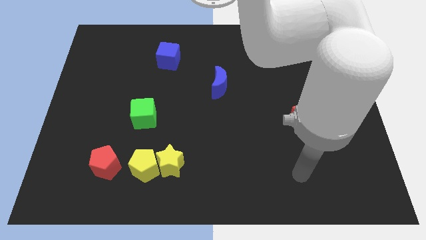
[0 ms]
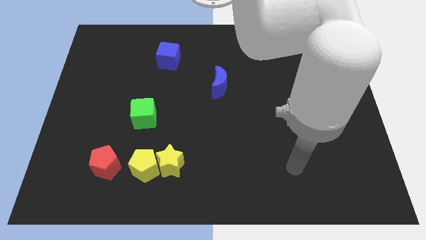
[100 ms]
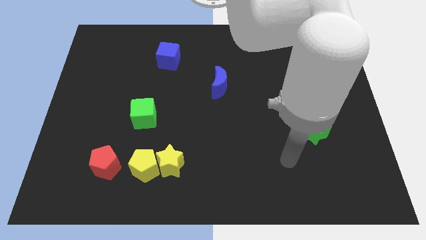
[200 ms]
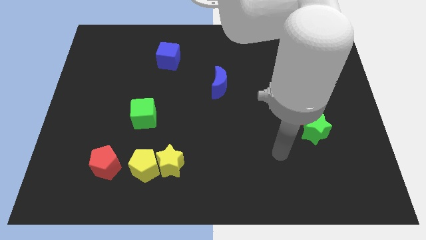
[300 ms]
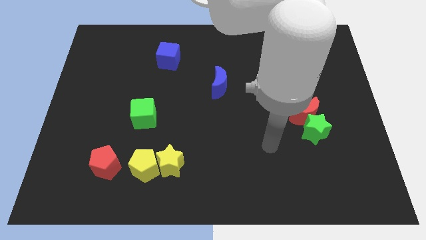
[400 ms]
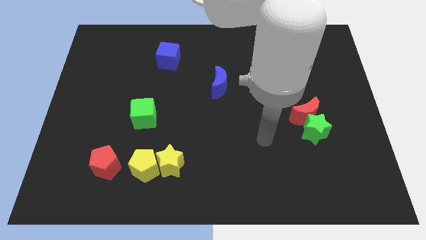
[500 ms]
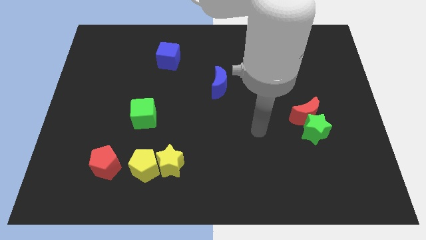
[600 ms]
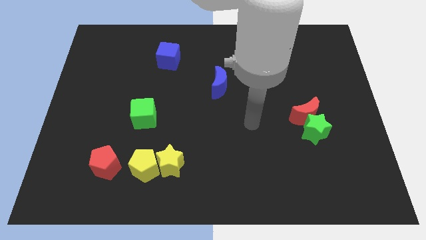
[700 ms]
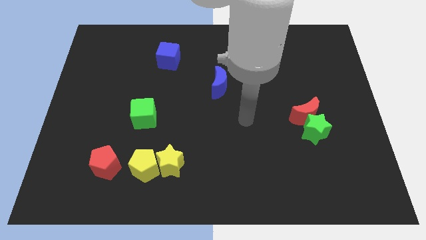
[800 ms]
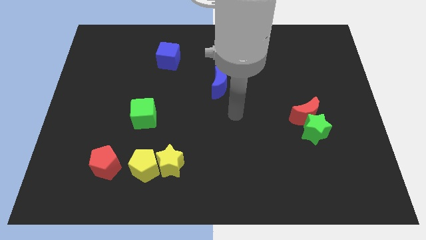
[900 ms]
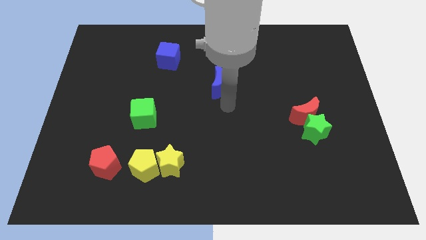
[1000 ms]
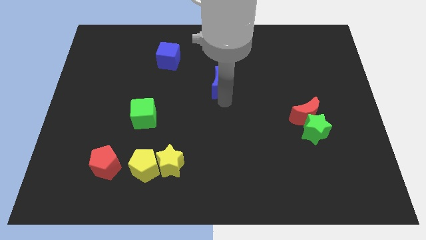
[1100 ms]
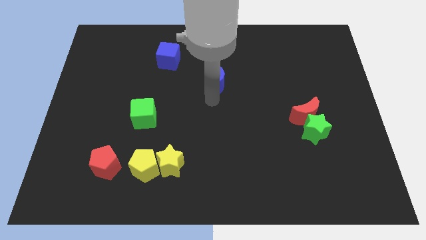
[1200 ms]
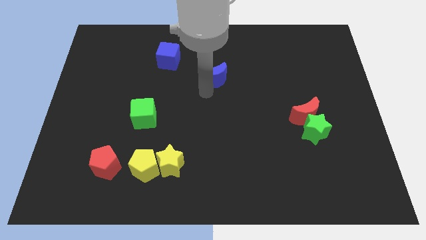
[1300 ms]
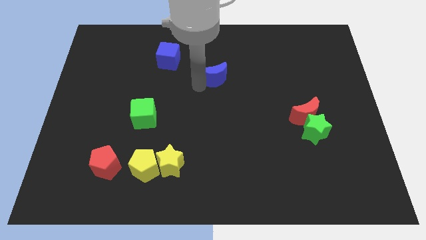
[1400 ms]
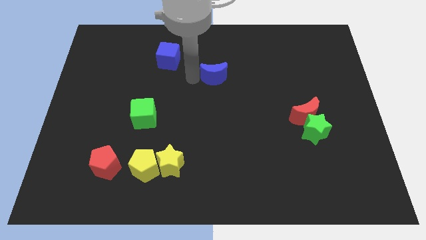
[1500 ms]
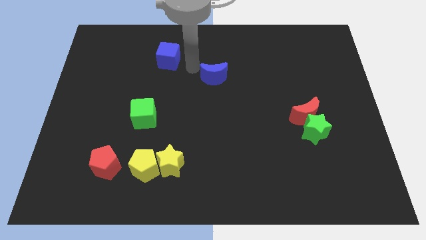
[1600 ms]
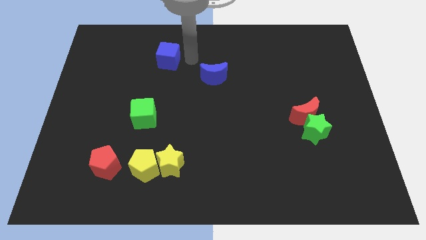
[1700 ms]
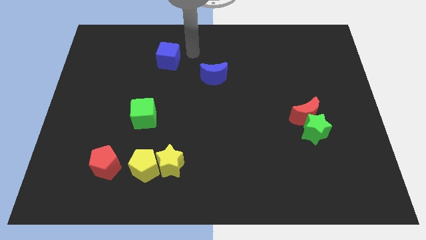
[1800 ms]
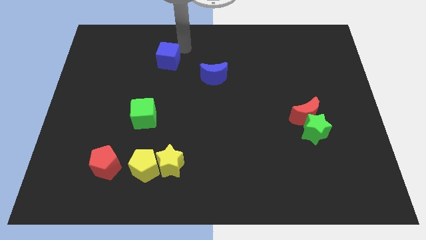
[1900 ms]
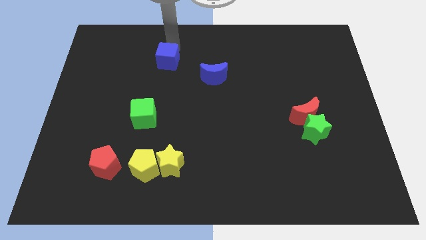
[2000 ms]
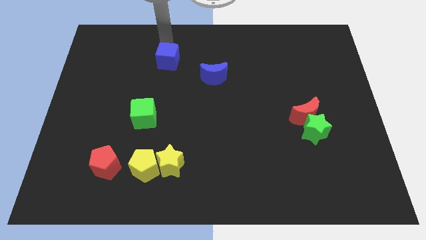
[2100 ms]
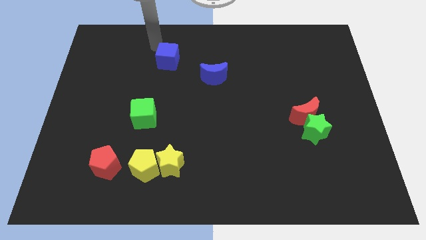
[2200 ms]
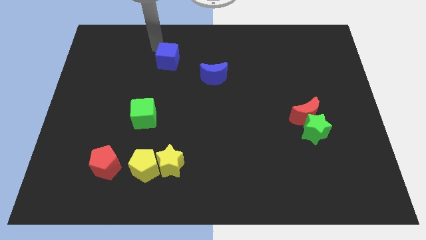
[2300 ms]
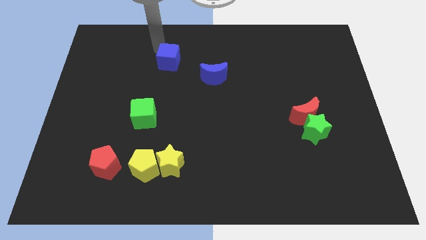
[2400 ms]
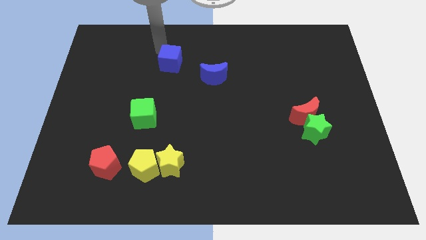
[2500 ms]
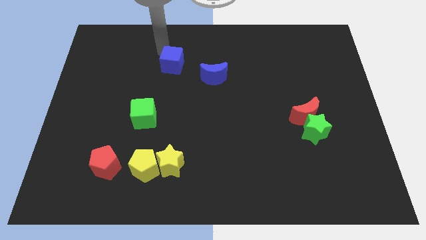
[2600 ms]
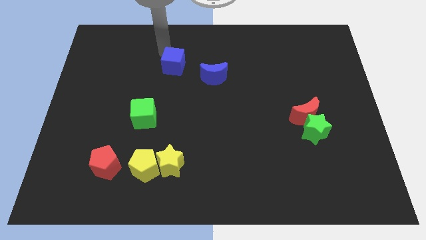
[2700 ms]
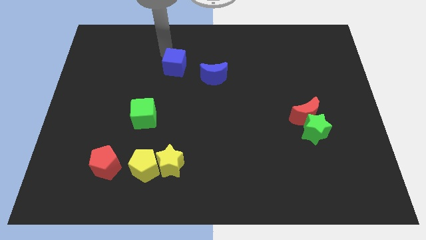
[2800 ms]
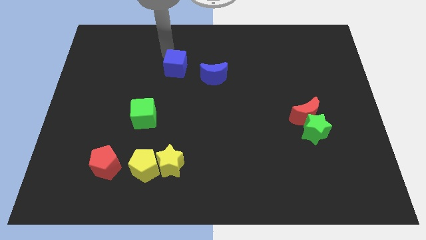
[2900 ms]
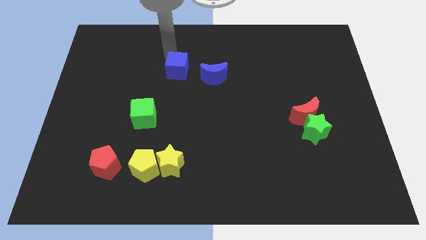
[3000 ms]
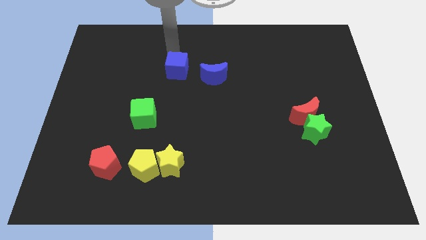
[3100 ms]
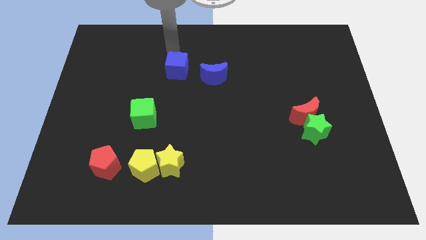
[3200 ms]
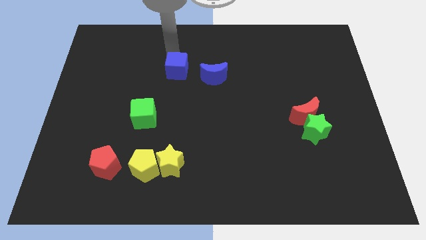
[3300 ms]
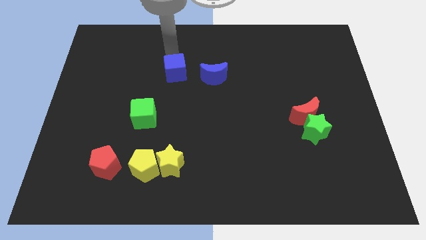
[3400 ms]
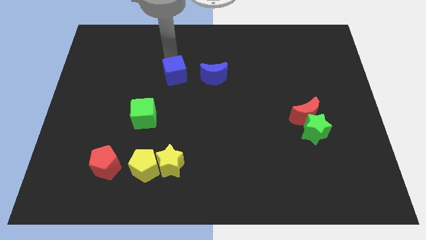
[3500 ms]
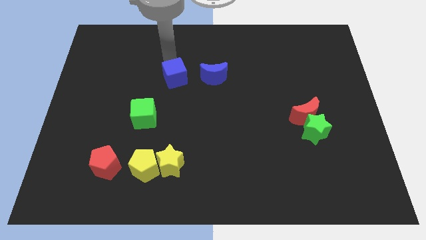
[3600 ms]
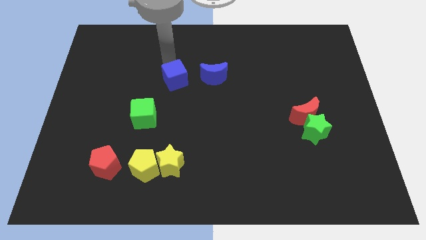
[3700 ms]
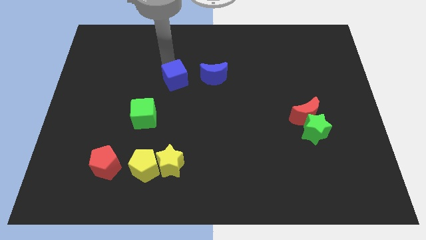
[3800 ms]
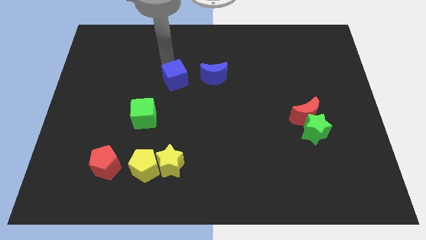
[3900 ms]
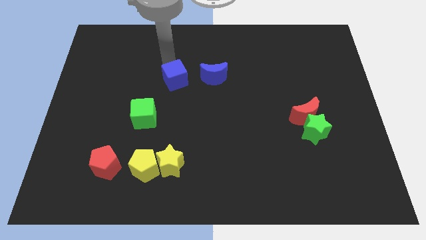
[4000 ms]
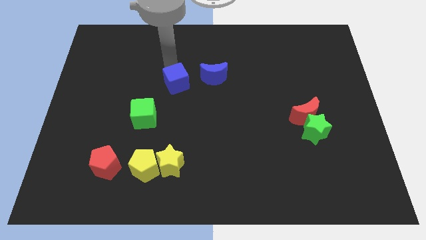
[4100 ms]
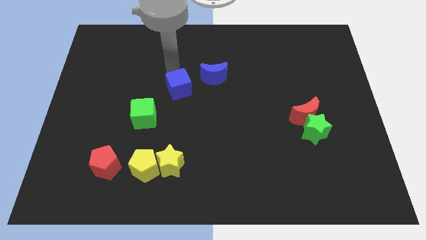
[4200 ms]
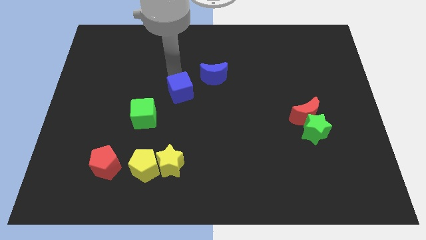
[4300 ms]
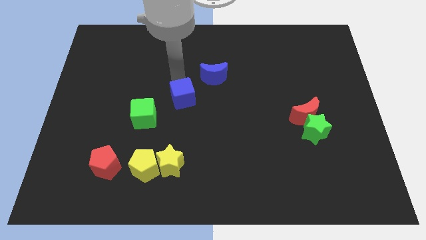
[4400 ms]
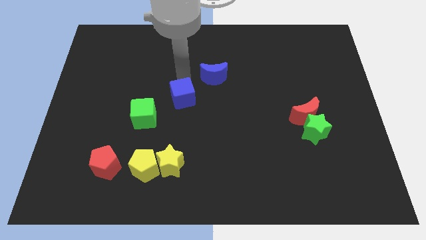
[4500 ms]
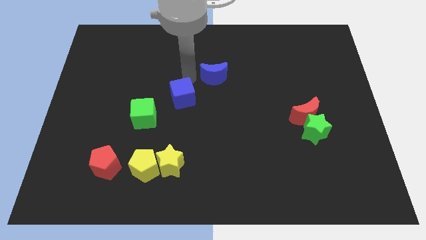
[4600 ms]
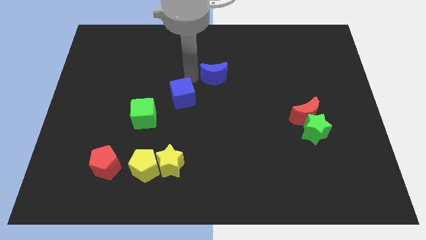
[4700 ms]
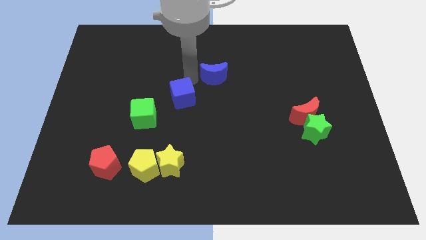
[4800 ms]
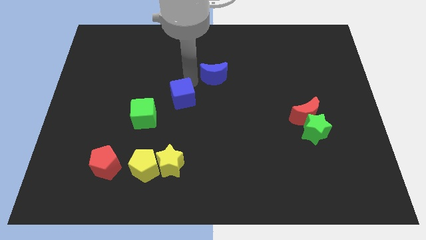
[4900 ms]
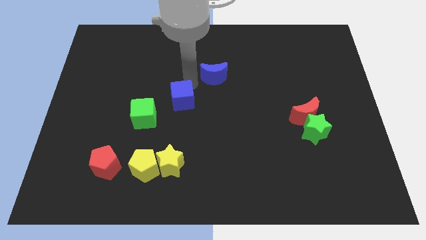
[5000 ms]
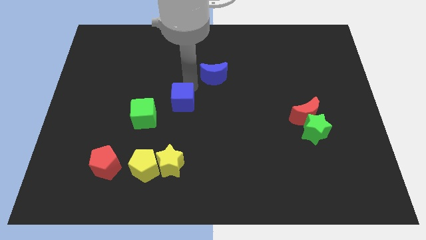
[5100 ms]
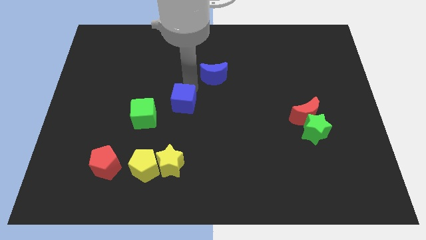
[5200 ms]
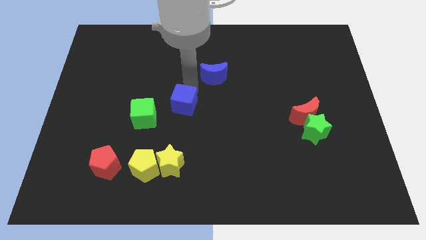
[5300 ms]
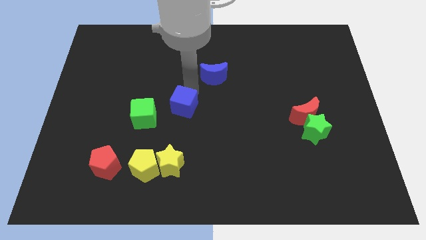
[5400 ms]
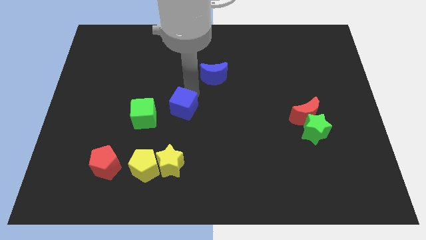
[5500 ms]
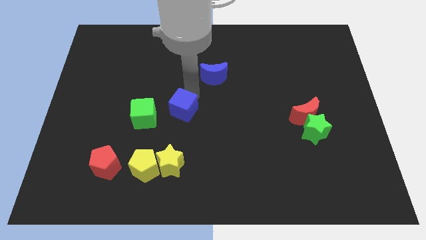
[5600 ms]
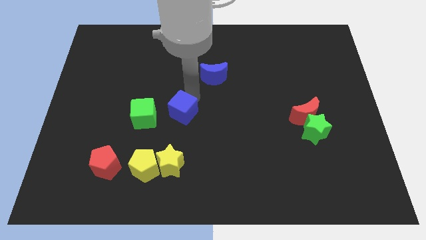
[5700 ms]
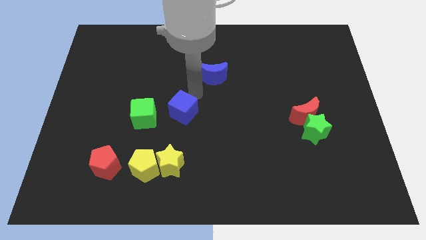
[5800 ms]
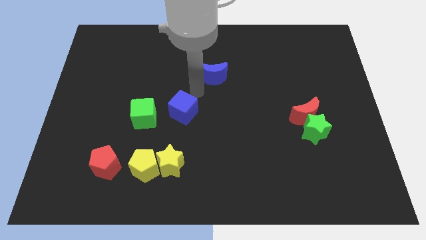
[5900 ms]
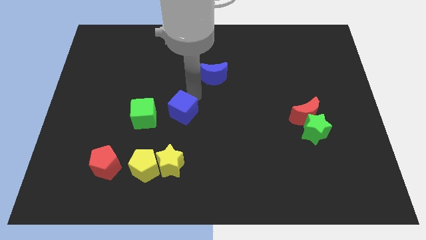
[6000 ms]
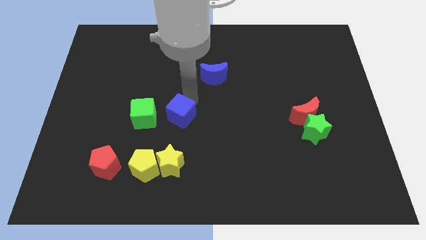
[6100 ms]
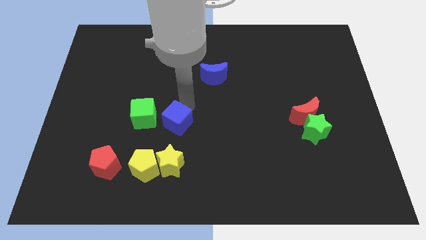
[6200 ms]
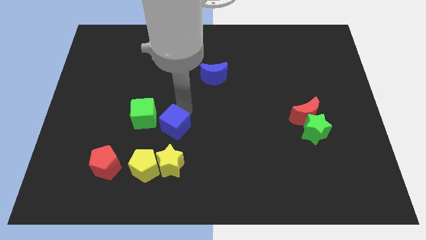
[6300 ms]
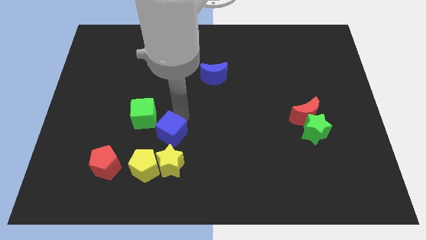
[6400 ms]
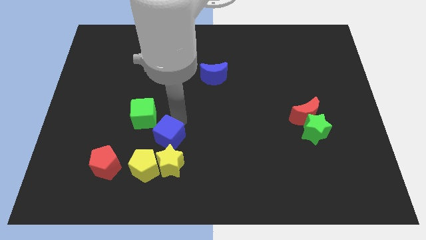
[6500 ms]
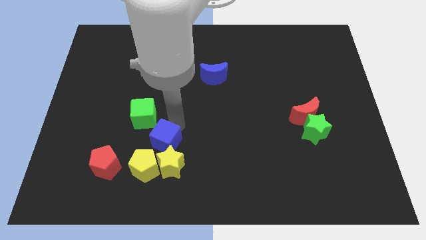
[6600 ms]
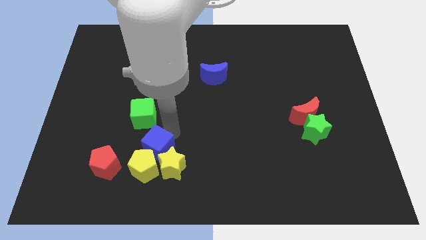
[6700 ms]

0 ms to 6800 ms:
slide the blue cube to the yellow pentagon
